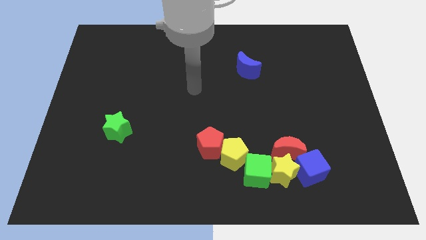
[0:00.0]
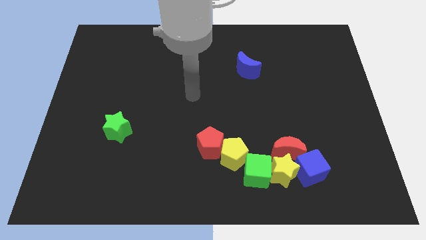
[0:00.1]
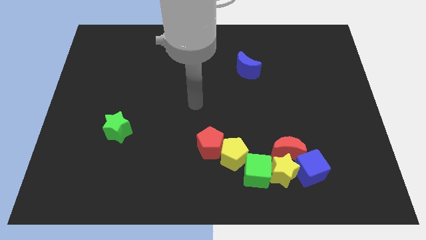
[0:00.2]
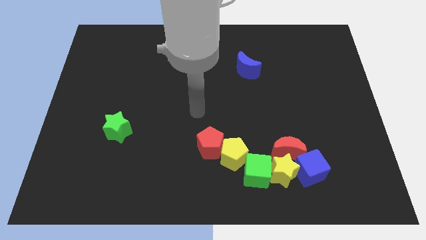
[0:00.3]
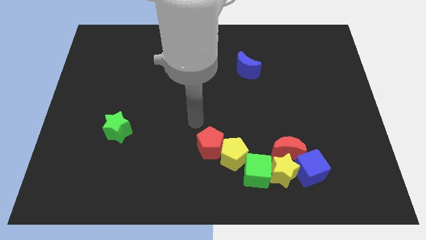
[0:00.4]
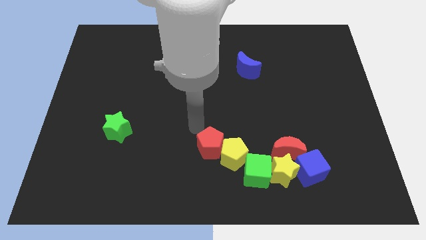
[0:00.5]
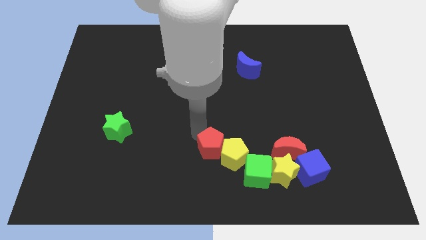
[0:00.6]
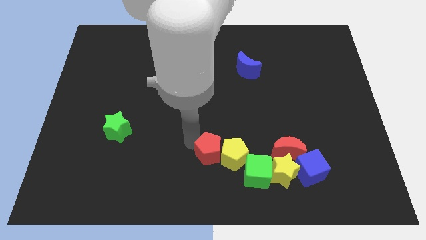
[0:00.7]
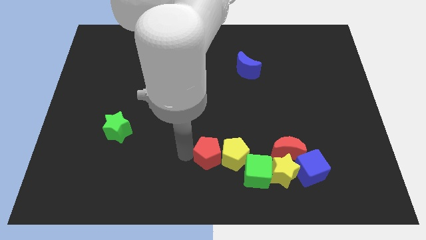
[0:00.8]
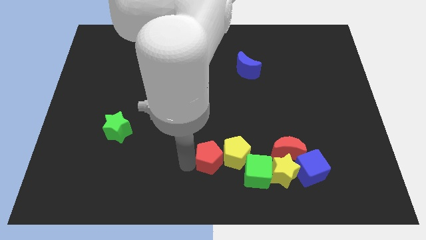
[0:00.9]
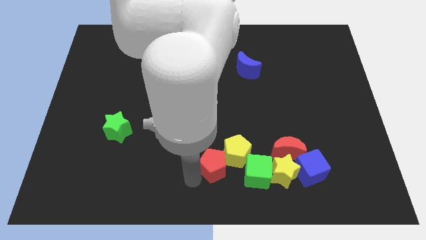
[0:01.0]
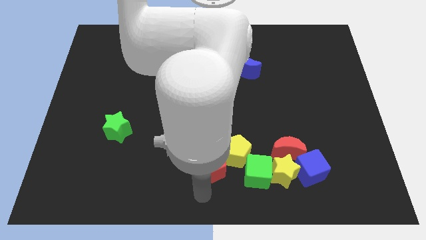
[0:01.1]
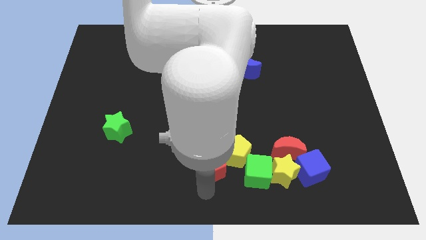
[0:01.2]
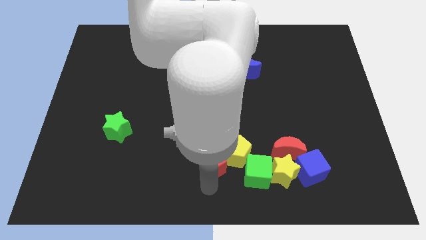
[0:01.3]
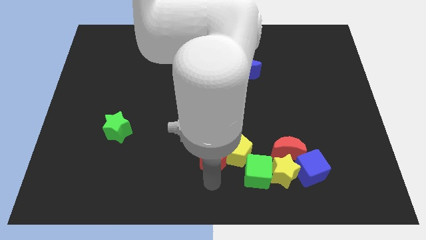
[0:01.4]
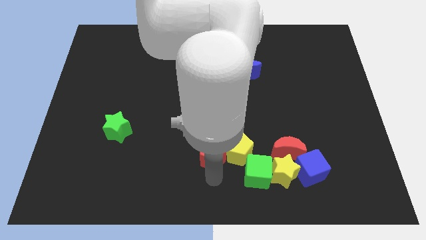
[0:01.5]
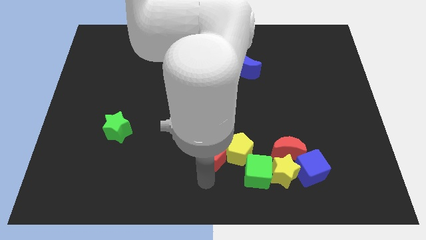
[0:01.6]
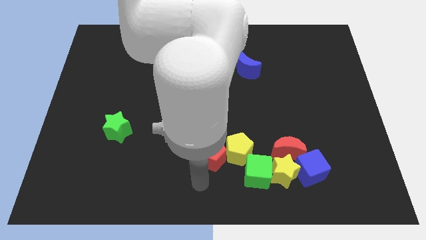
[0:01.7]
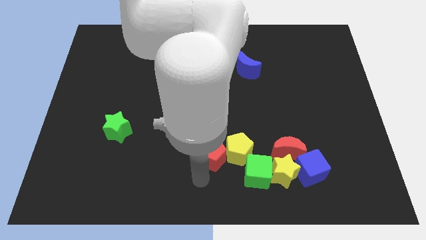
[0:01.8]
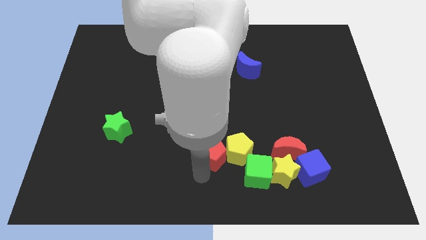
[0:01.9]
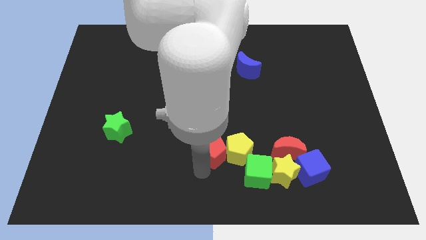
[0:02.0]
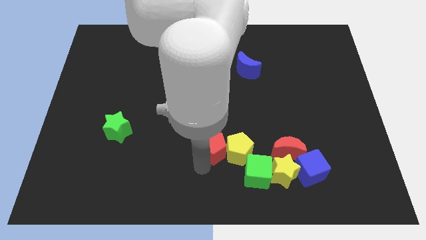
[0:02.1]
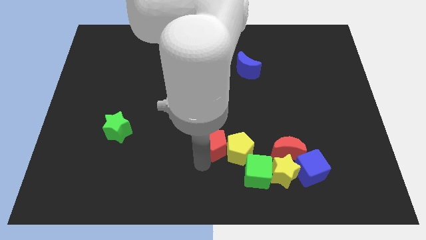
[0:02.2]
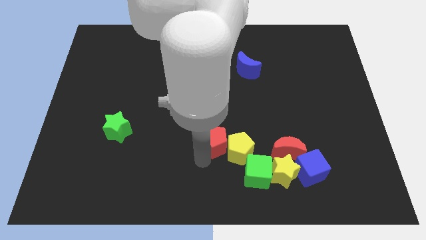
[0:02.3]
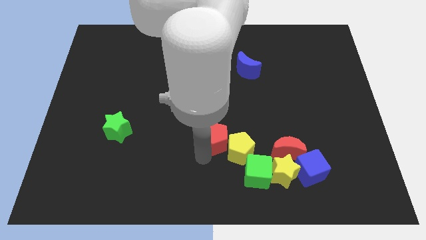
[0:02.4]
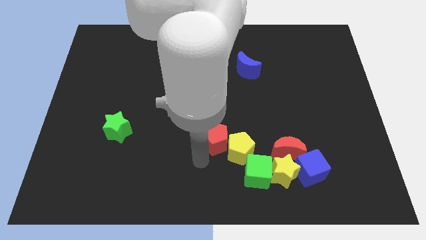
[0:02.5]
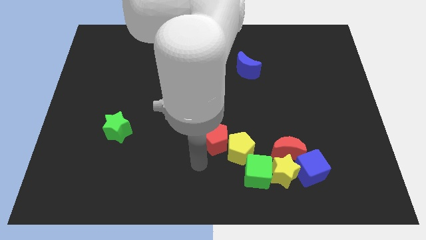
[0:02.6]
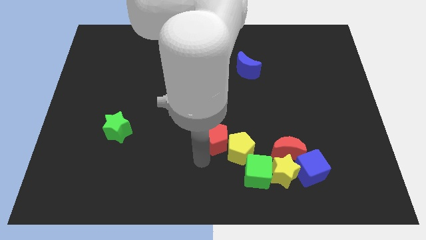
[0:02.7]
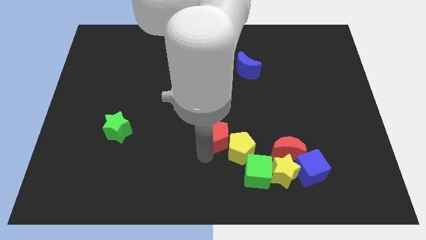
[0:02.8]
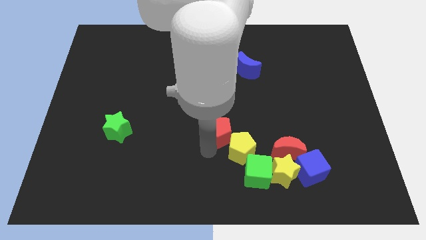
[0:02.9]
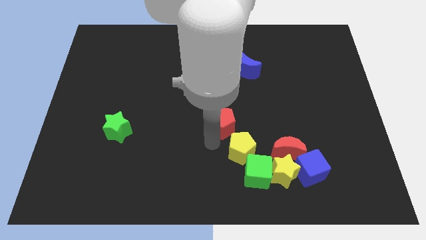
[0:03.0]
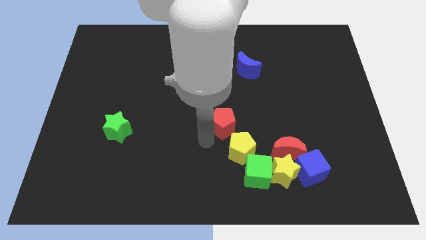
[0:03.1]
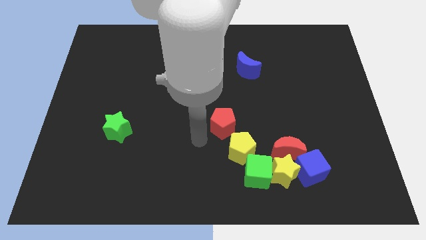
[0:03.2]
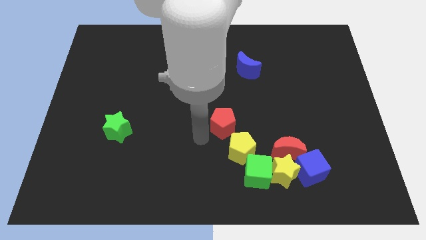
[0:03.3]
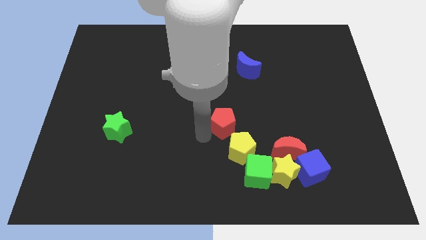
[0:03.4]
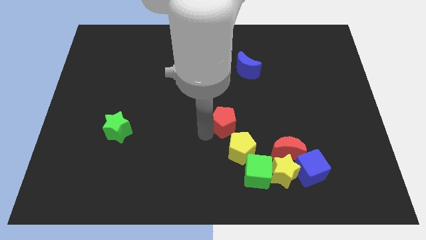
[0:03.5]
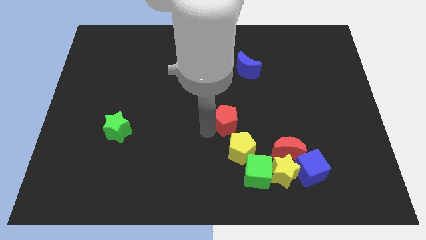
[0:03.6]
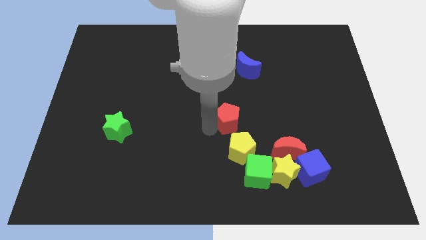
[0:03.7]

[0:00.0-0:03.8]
move the red pentagon upwards and right diagonally a little bit

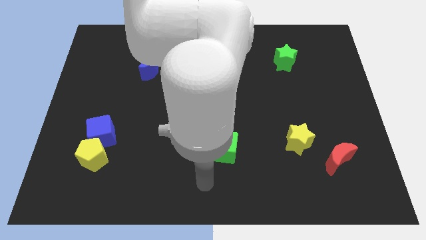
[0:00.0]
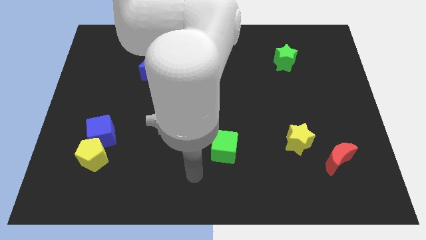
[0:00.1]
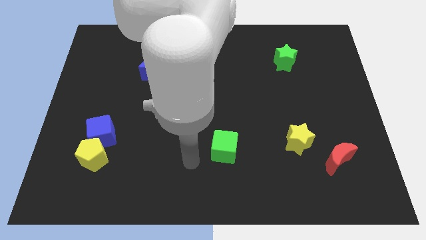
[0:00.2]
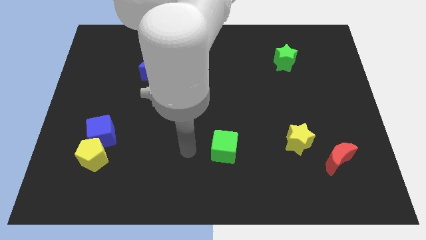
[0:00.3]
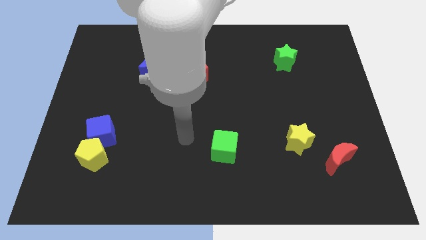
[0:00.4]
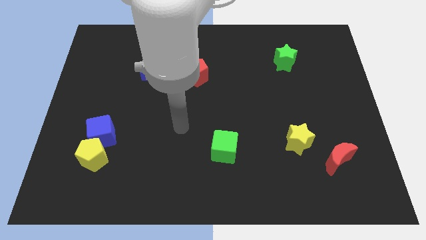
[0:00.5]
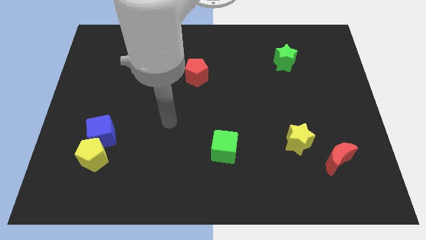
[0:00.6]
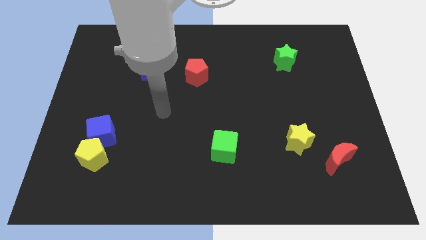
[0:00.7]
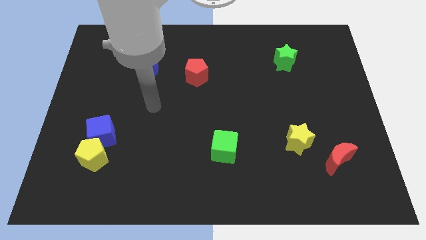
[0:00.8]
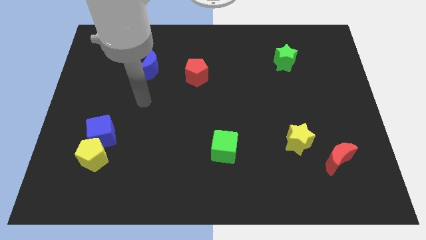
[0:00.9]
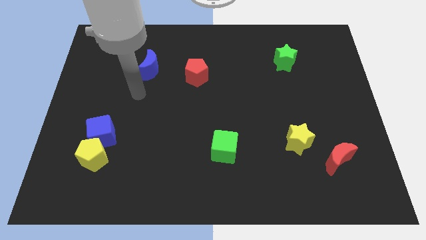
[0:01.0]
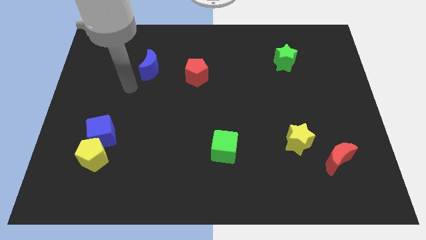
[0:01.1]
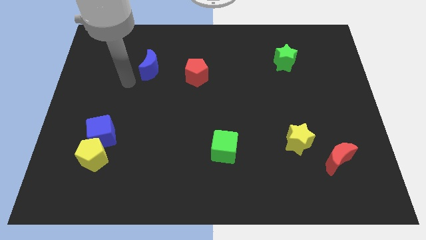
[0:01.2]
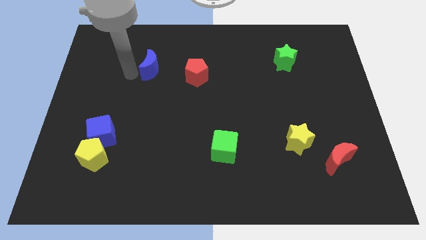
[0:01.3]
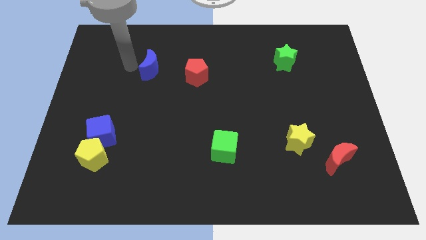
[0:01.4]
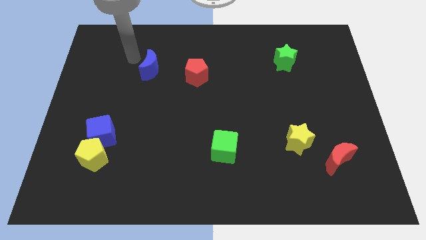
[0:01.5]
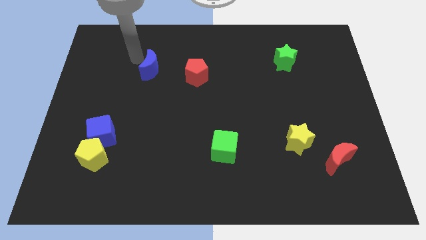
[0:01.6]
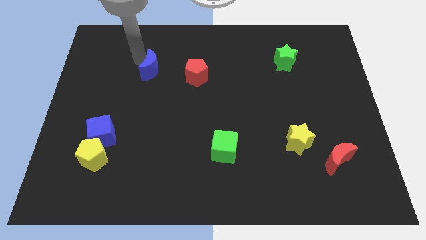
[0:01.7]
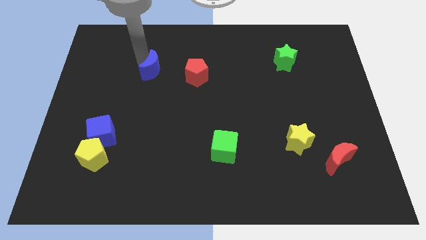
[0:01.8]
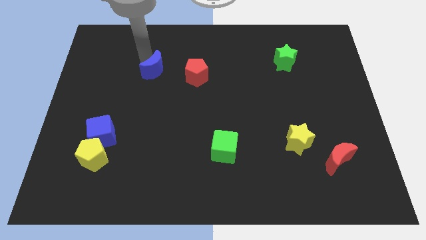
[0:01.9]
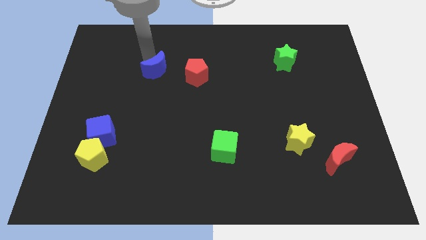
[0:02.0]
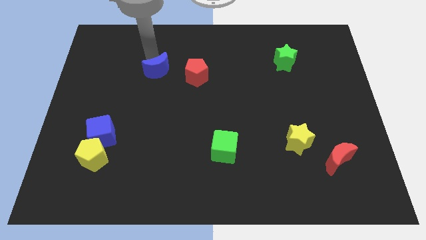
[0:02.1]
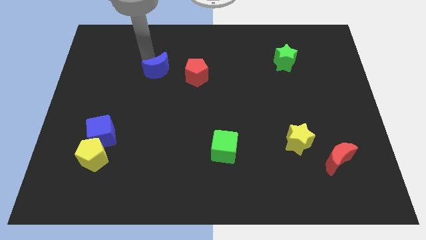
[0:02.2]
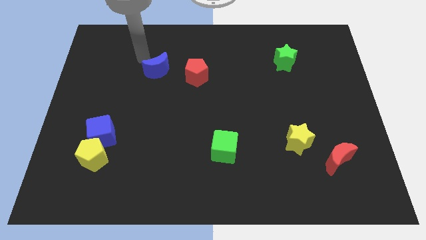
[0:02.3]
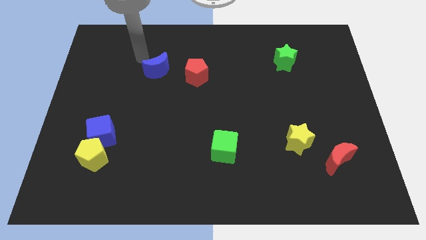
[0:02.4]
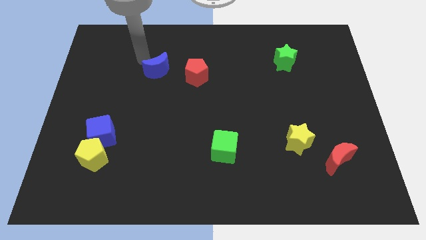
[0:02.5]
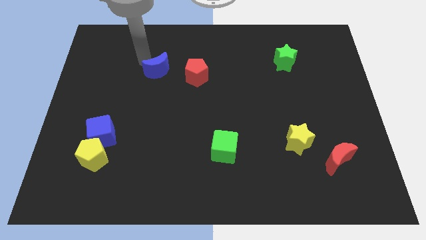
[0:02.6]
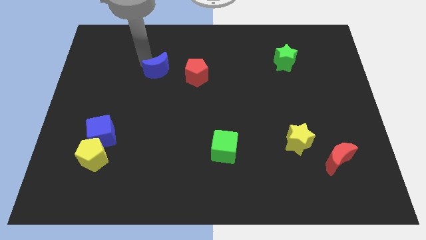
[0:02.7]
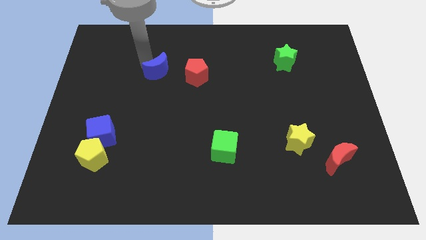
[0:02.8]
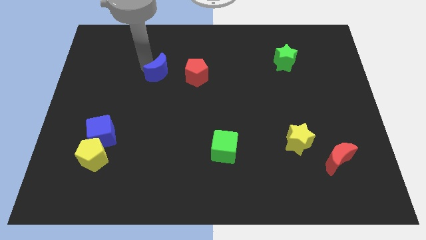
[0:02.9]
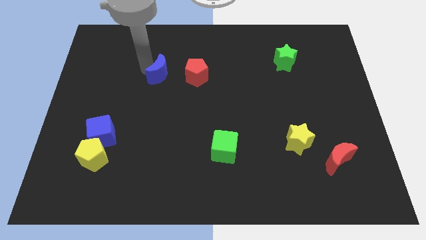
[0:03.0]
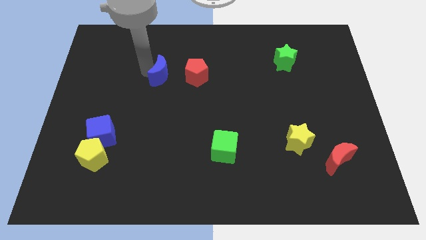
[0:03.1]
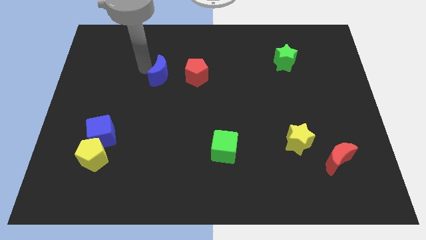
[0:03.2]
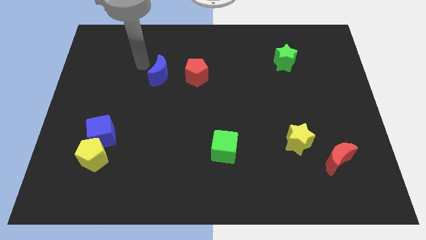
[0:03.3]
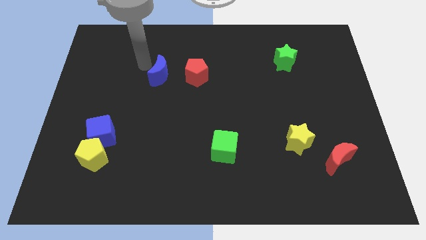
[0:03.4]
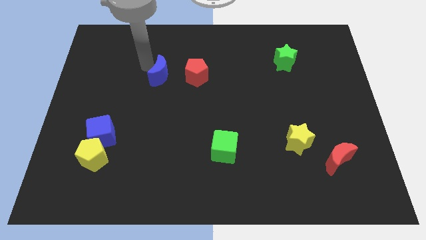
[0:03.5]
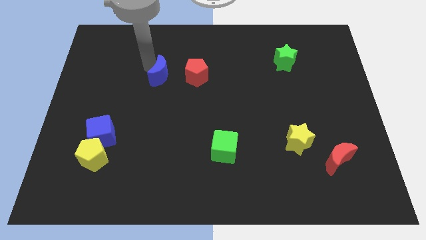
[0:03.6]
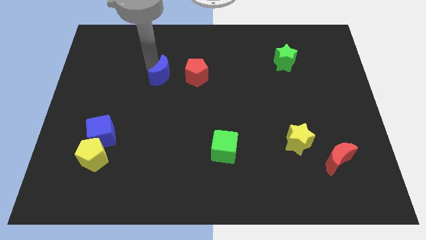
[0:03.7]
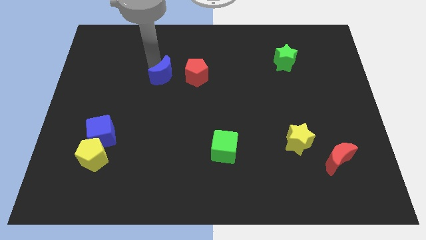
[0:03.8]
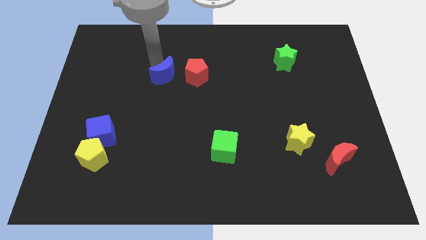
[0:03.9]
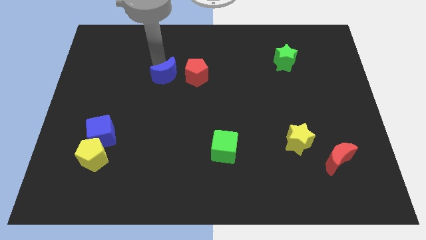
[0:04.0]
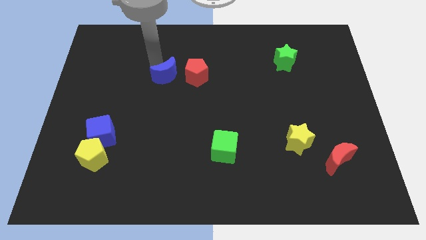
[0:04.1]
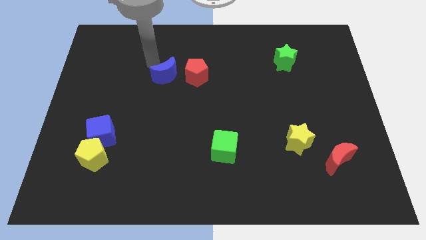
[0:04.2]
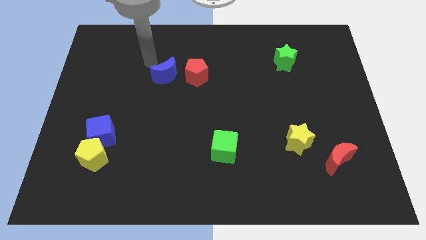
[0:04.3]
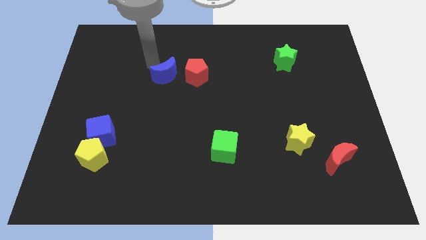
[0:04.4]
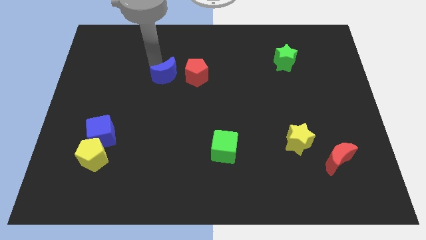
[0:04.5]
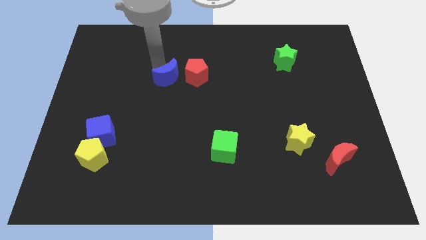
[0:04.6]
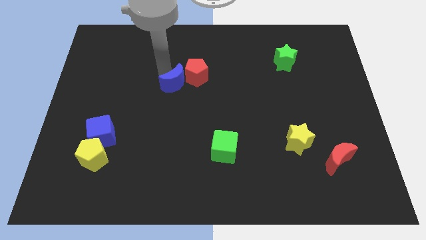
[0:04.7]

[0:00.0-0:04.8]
slightly slide the blue moon downwards and to the right
